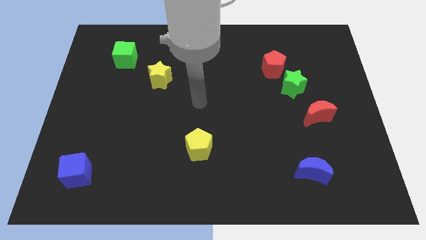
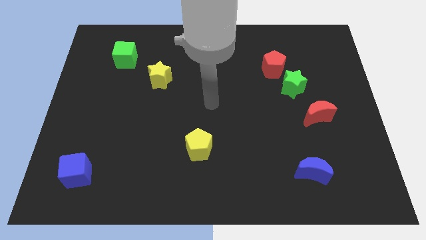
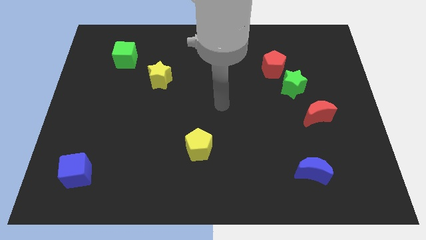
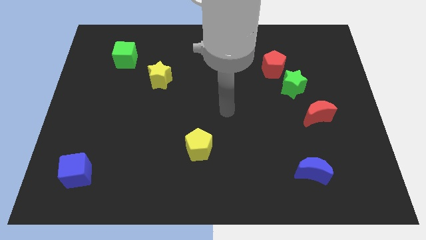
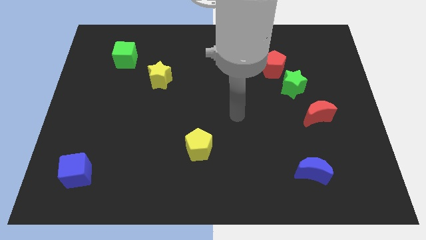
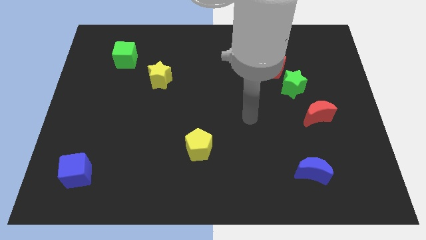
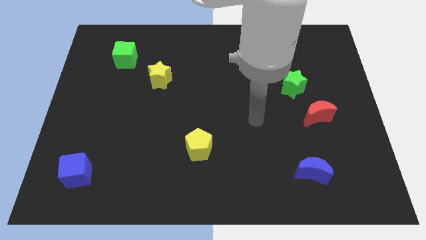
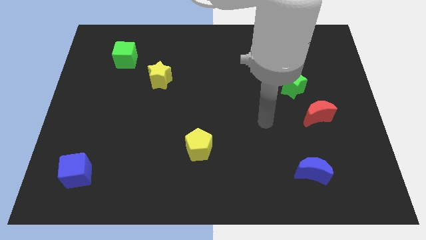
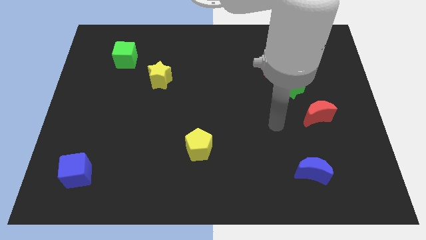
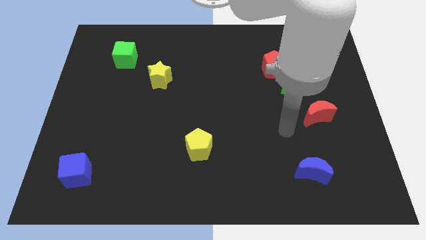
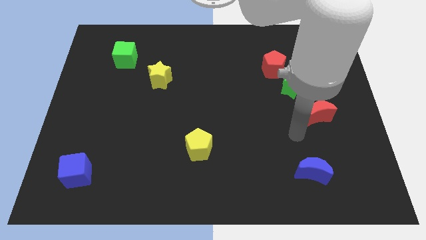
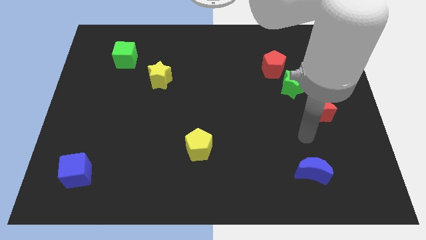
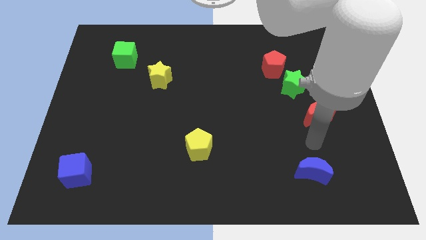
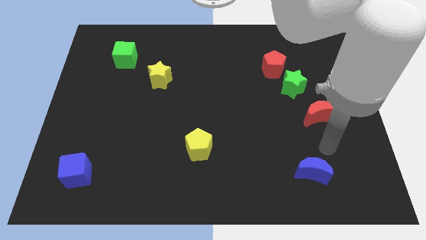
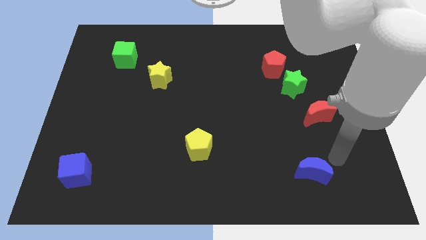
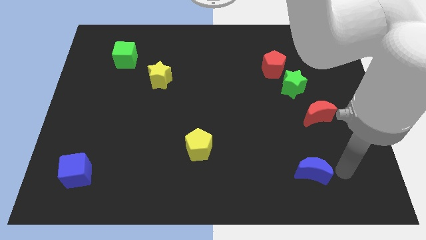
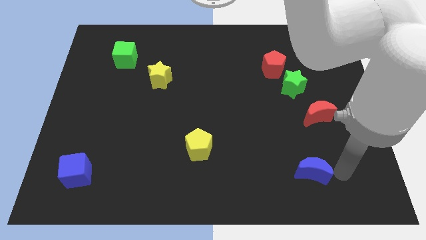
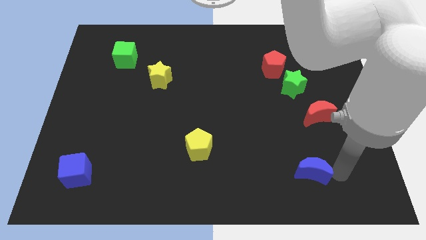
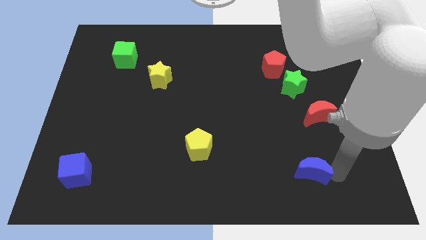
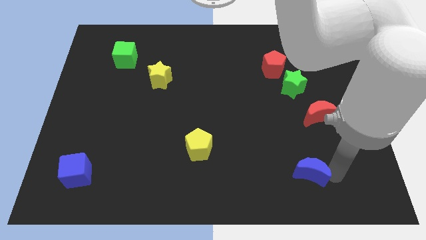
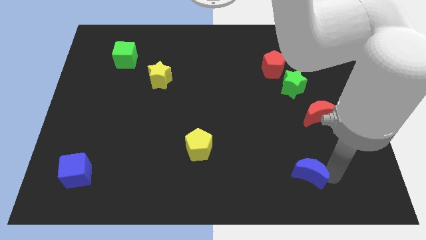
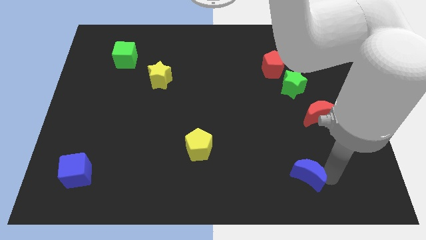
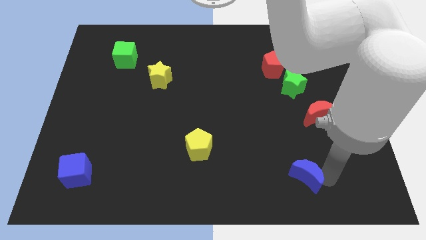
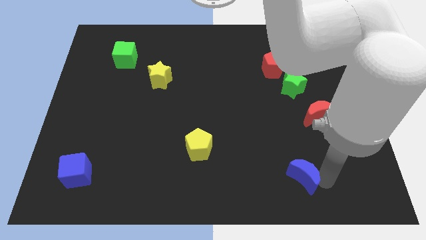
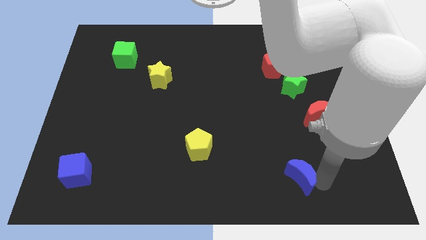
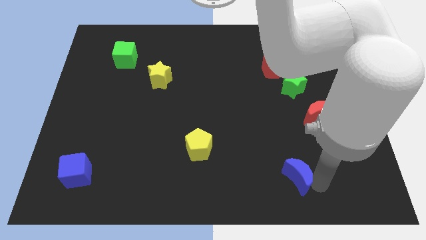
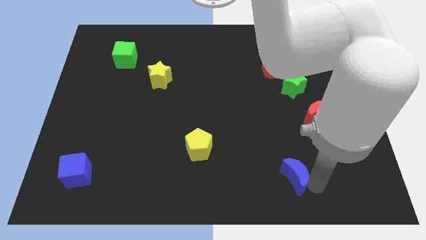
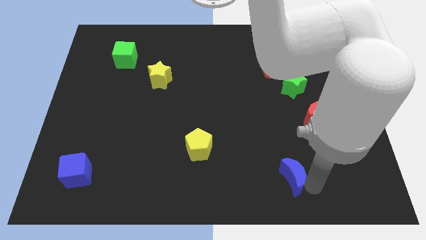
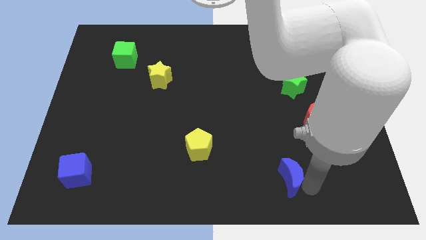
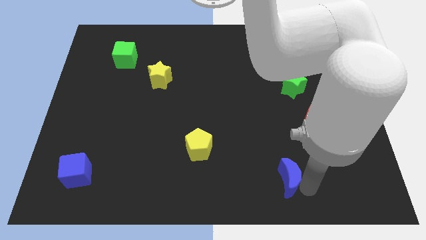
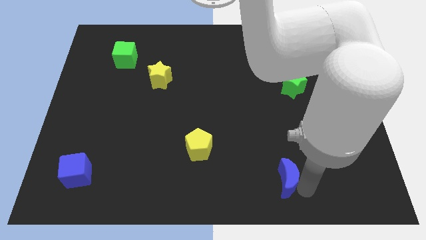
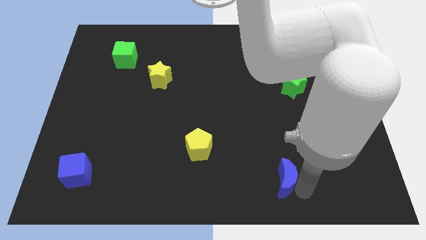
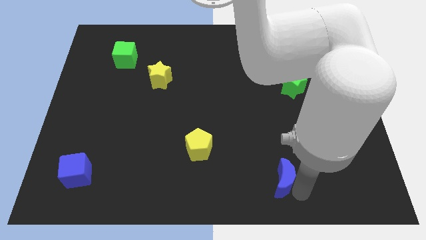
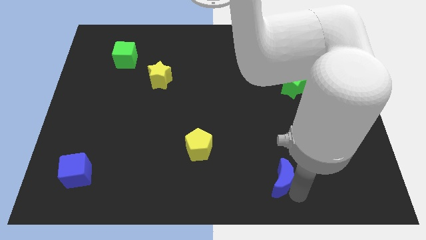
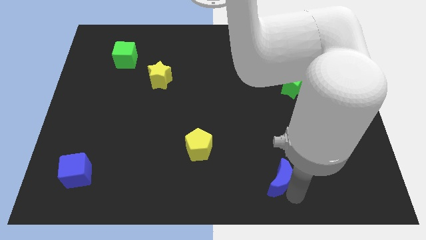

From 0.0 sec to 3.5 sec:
push the blue moon to the left a bit

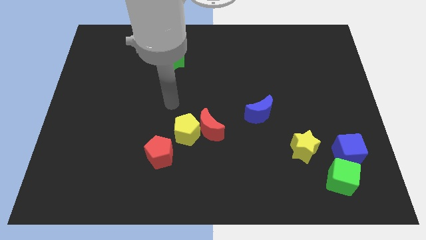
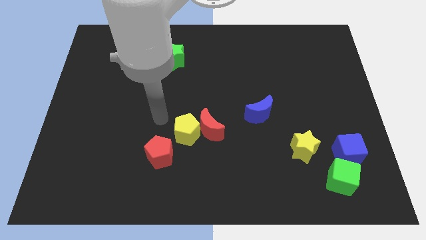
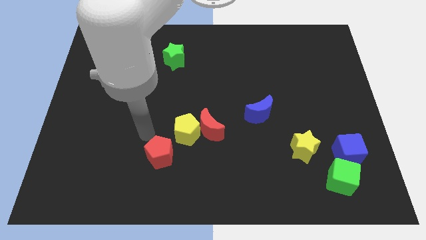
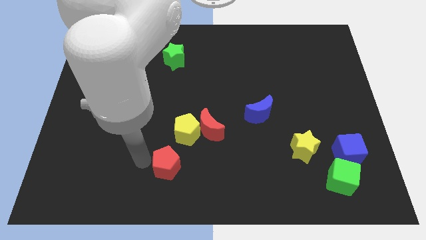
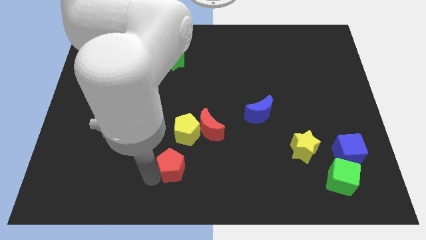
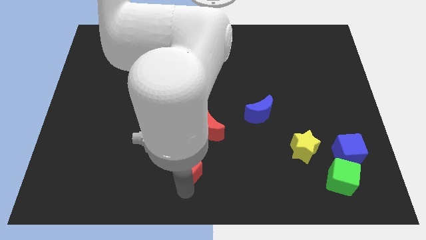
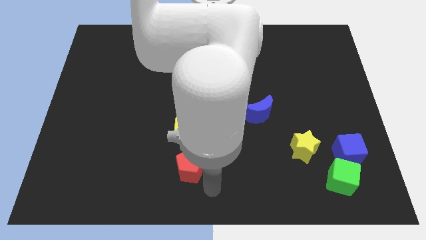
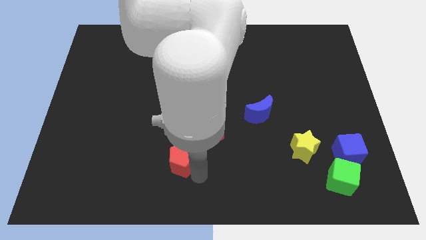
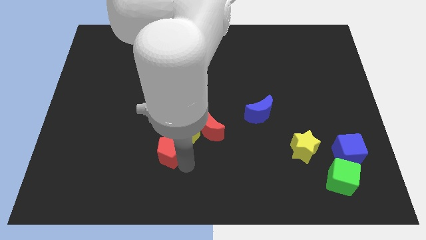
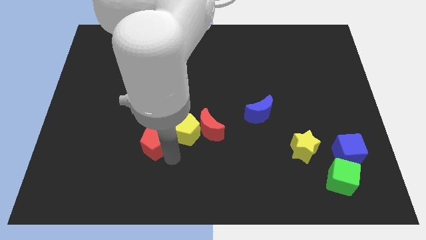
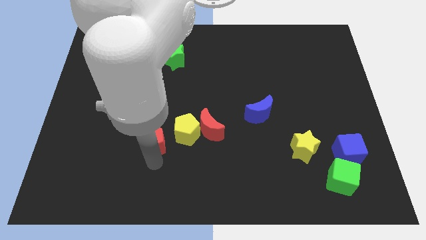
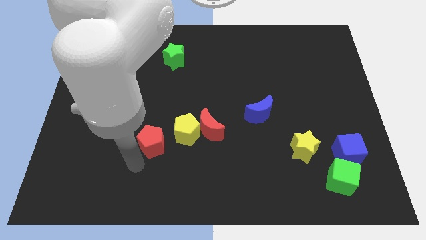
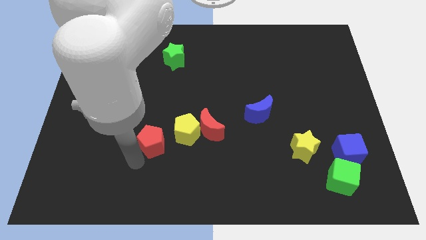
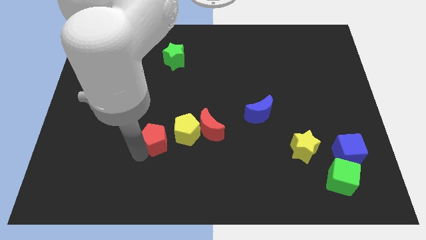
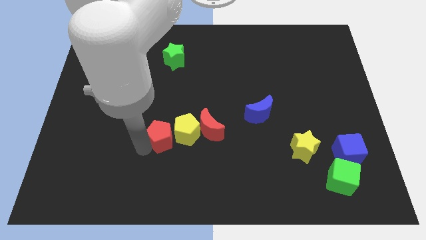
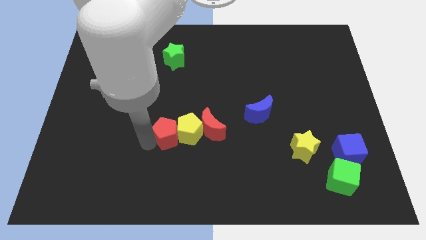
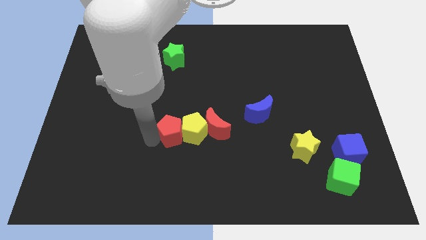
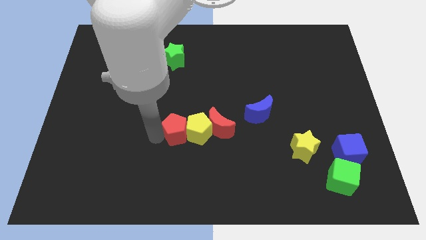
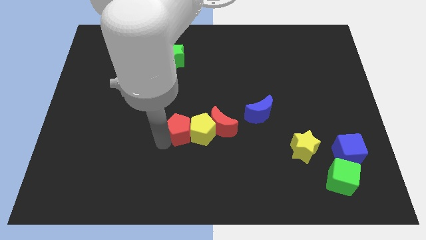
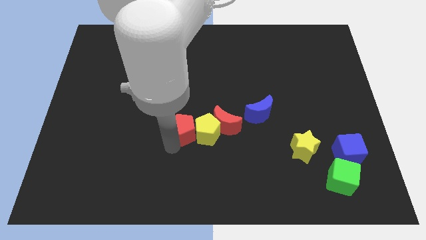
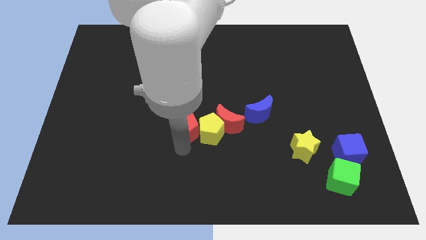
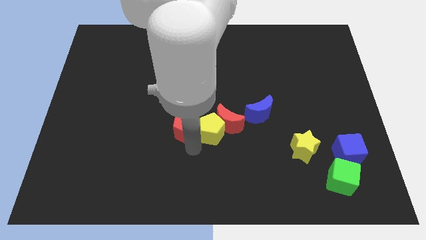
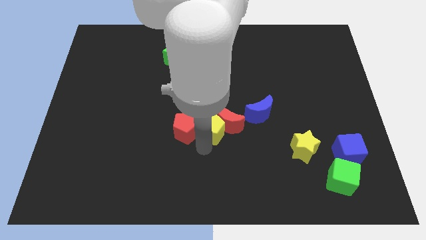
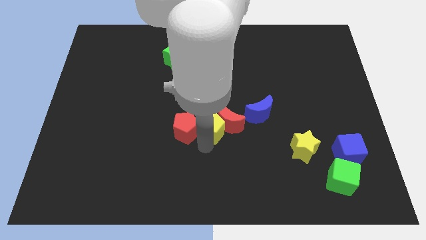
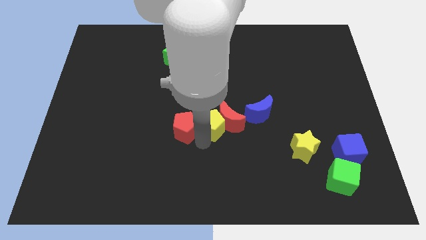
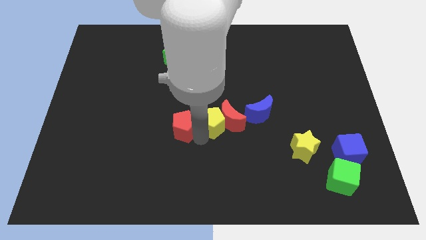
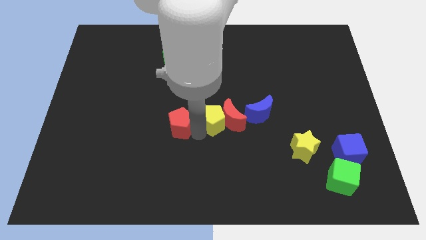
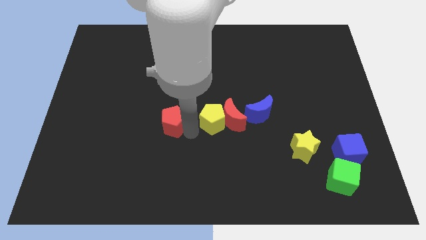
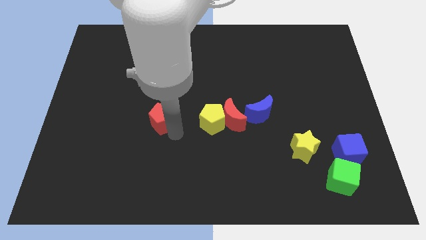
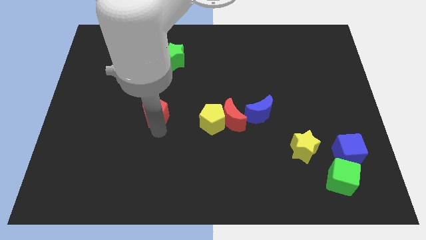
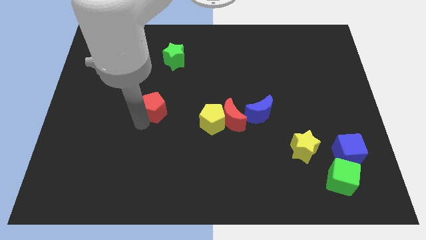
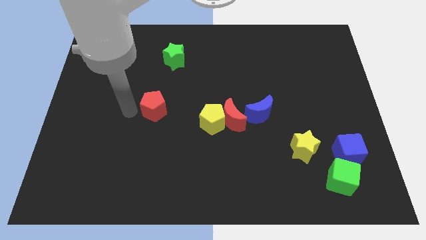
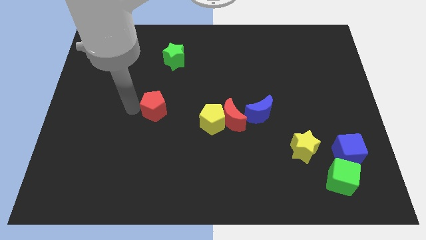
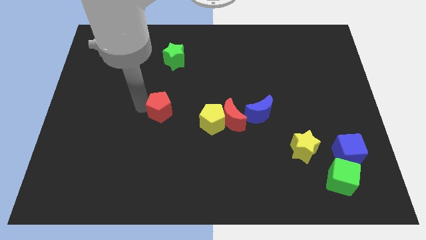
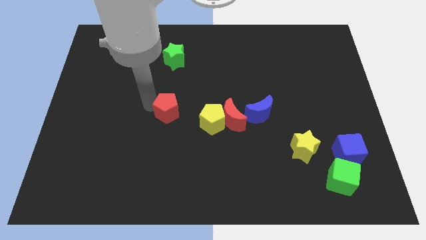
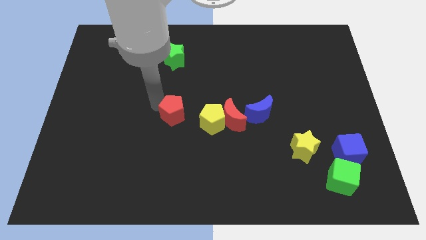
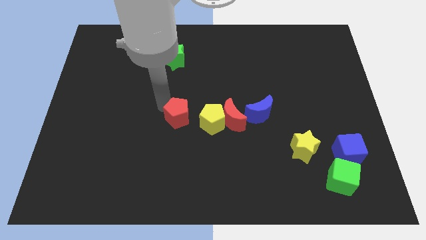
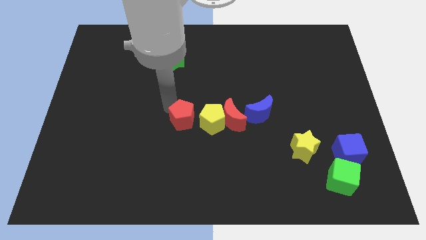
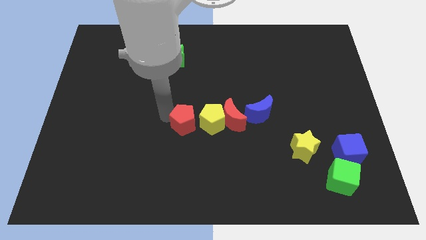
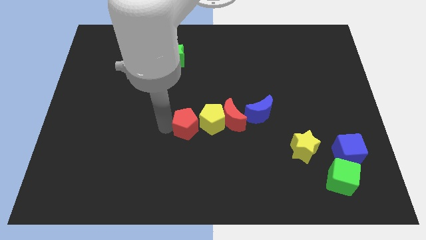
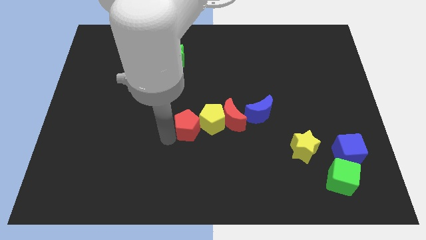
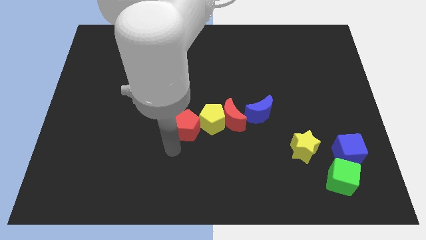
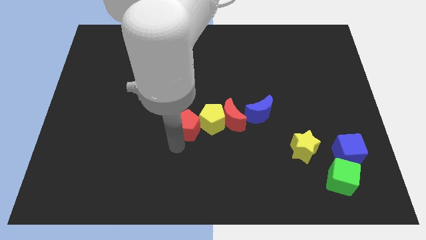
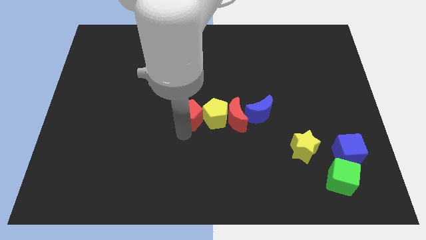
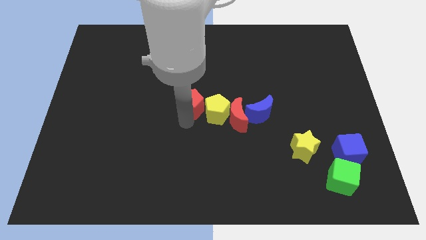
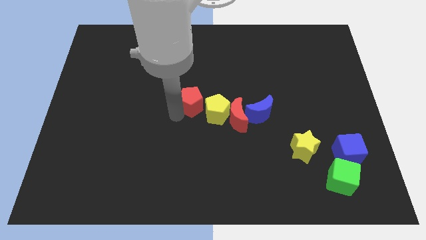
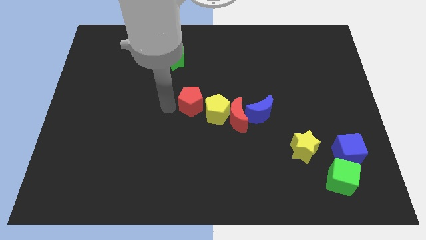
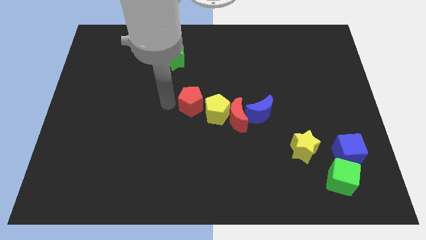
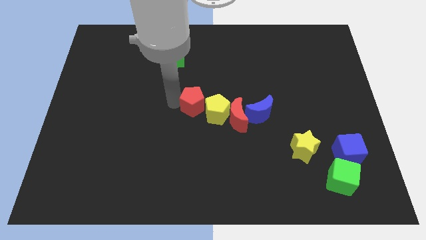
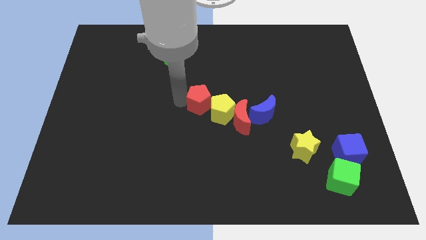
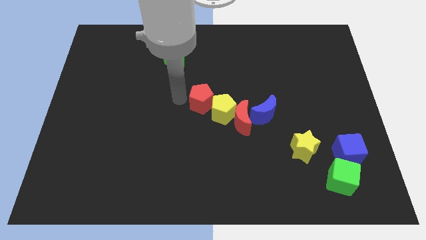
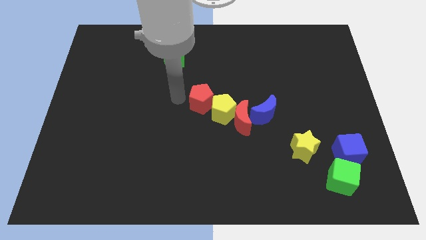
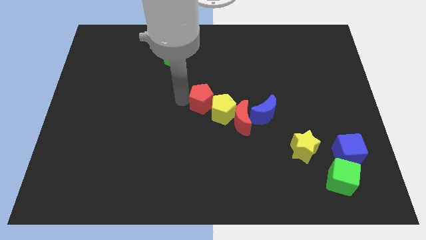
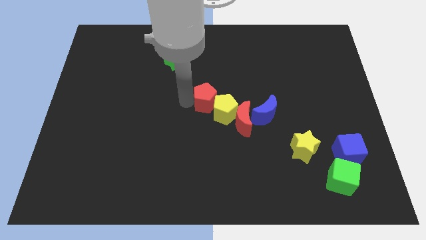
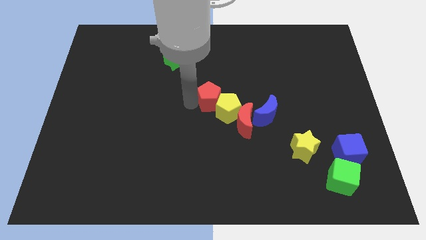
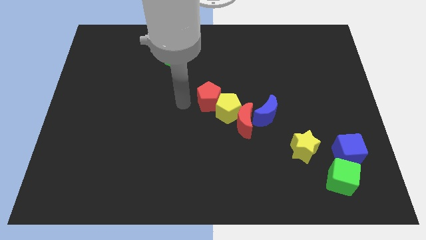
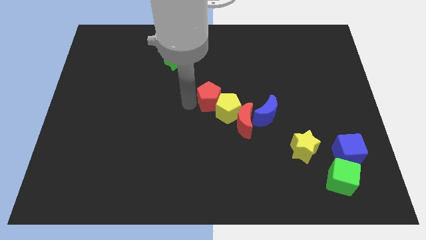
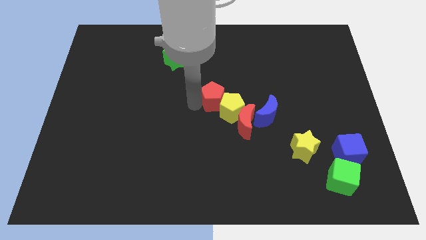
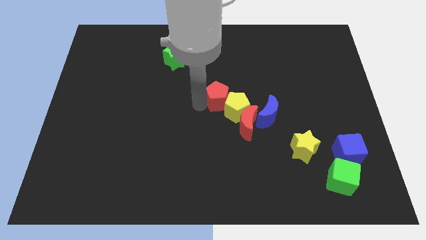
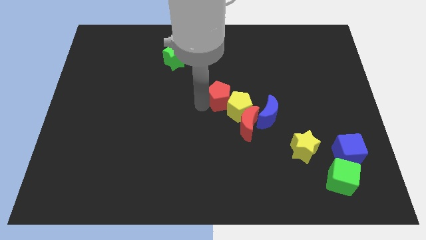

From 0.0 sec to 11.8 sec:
push the red pentagon up and right diagonally
